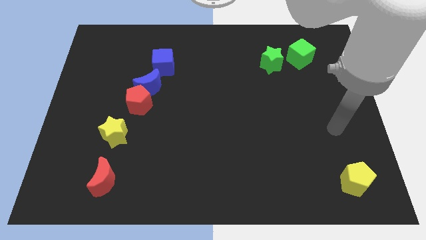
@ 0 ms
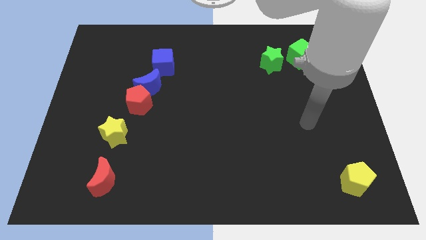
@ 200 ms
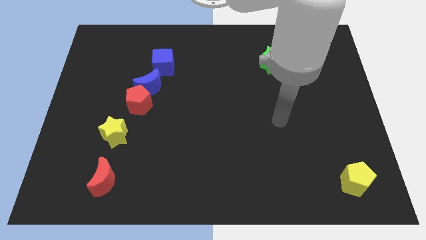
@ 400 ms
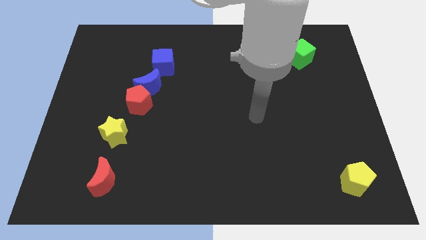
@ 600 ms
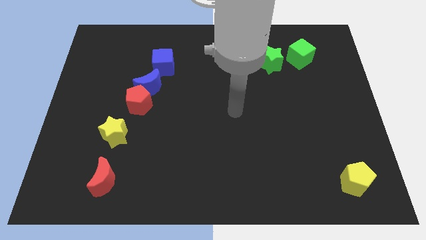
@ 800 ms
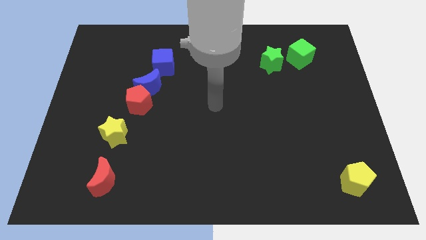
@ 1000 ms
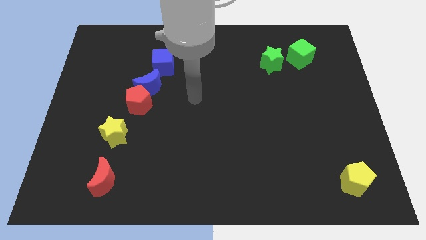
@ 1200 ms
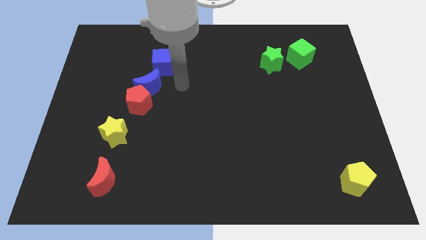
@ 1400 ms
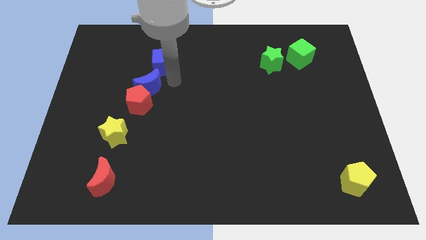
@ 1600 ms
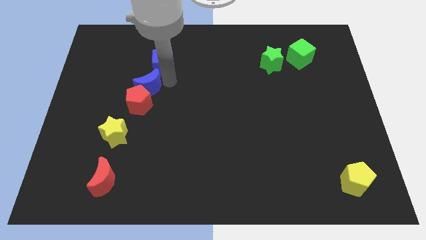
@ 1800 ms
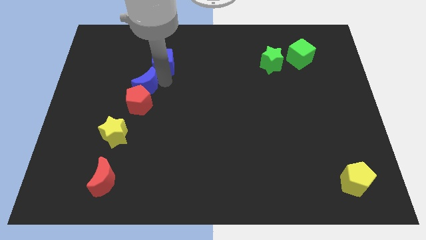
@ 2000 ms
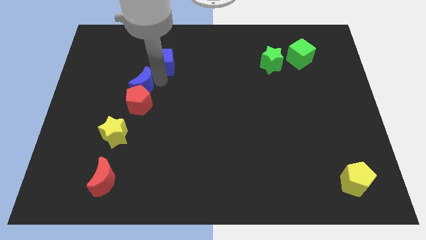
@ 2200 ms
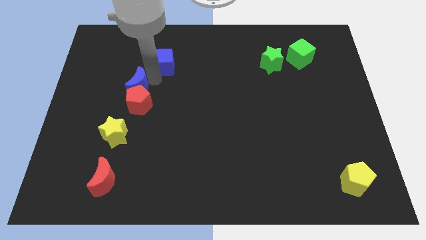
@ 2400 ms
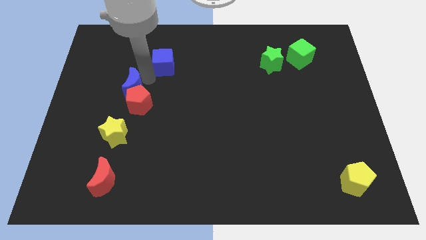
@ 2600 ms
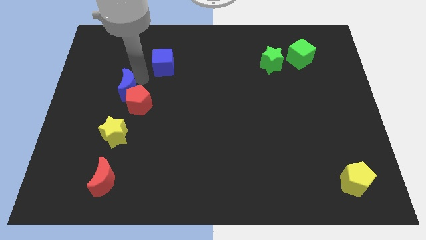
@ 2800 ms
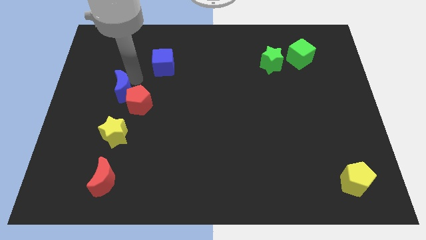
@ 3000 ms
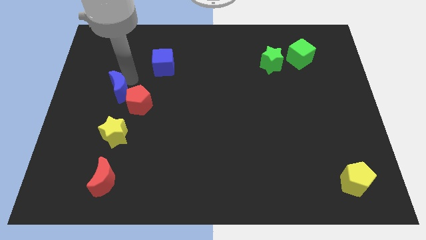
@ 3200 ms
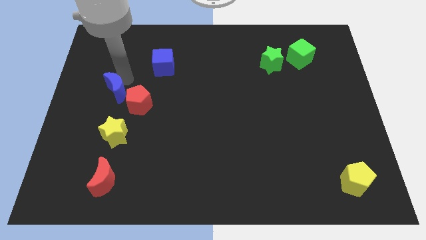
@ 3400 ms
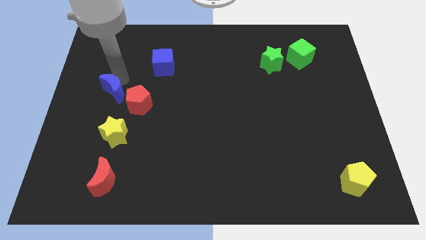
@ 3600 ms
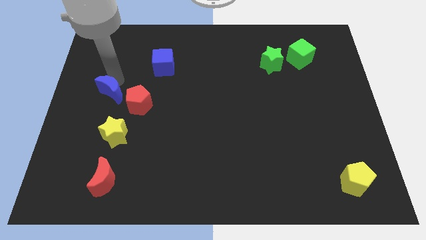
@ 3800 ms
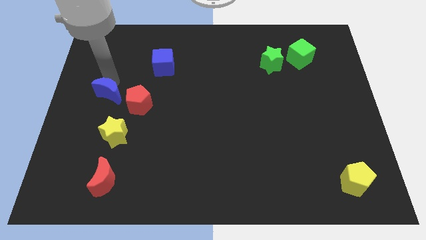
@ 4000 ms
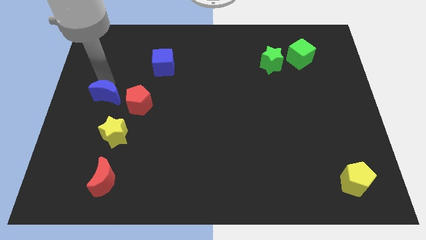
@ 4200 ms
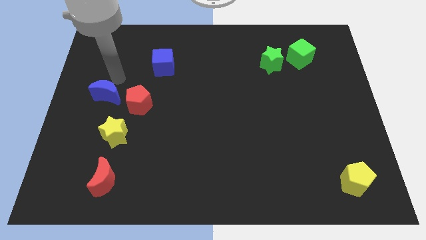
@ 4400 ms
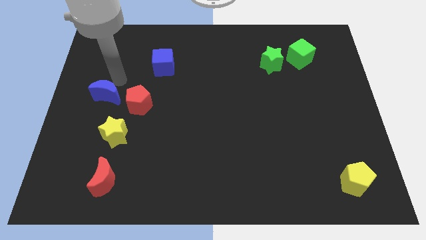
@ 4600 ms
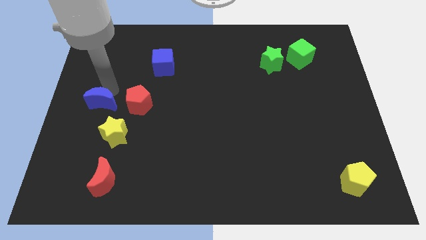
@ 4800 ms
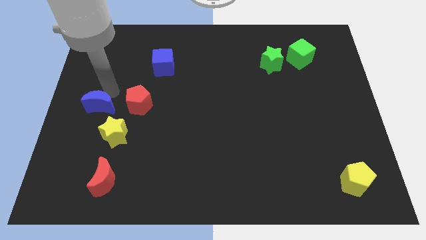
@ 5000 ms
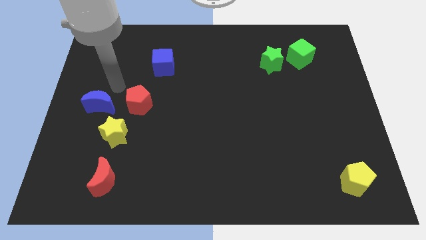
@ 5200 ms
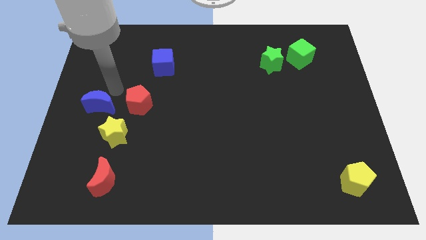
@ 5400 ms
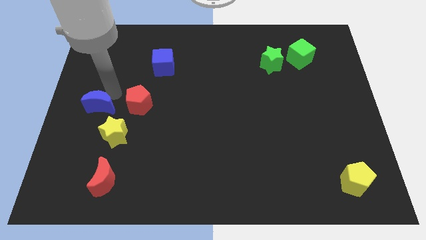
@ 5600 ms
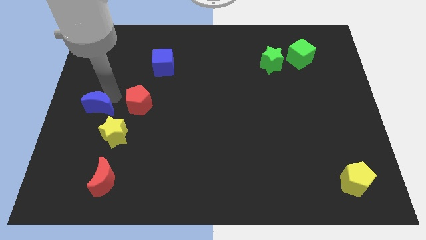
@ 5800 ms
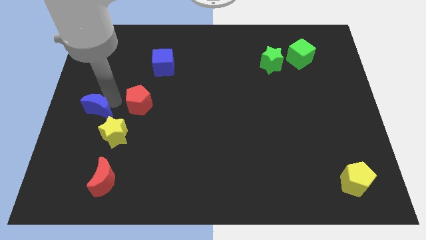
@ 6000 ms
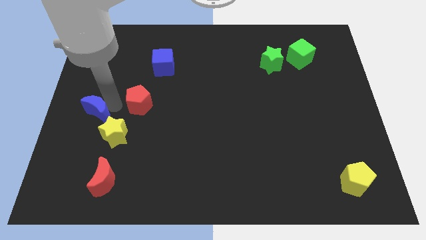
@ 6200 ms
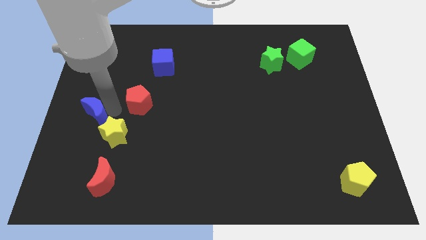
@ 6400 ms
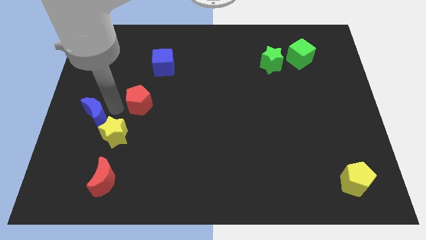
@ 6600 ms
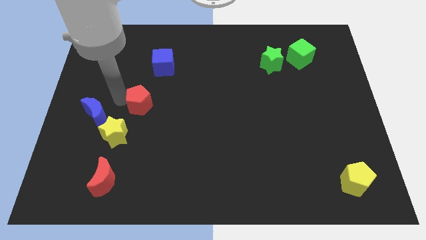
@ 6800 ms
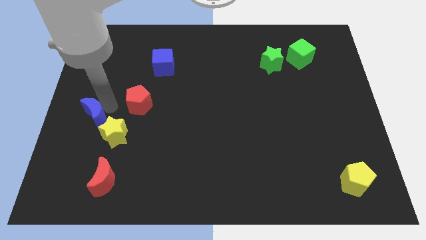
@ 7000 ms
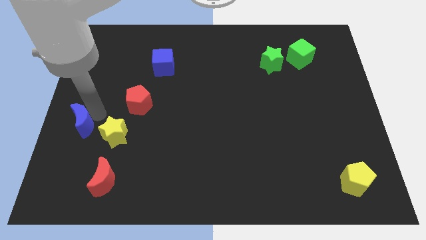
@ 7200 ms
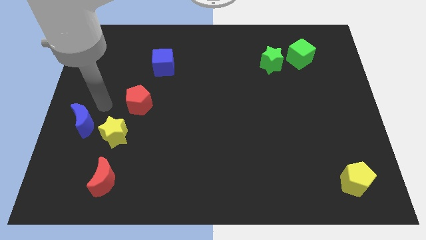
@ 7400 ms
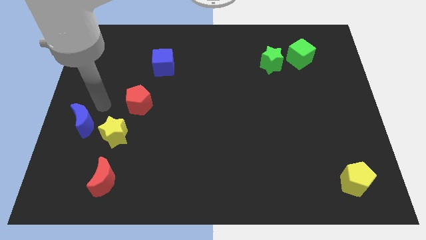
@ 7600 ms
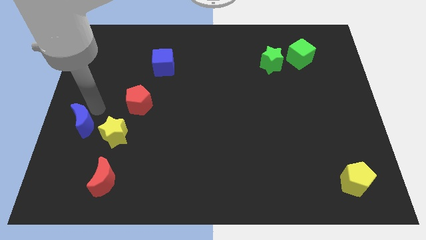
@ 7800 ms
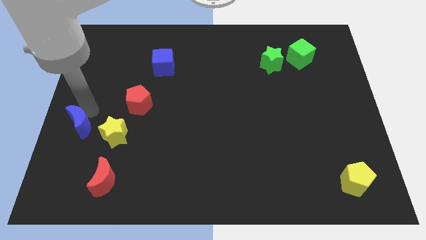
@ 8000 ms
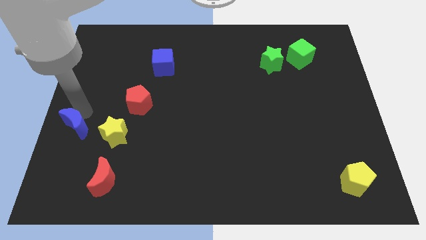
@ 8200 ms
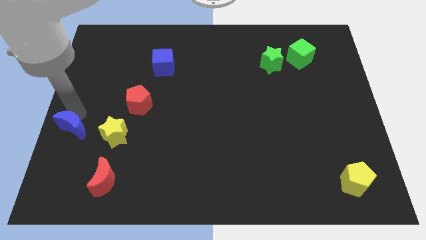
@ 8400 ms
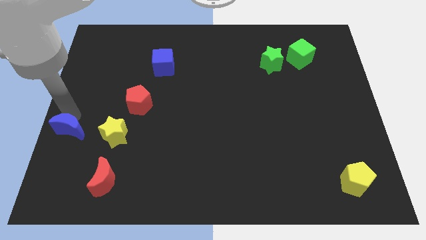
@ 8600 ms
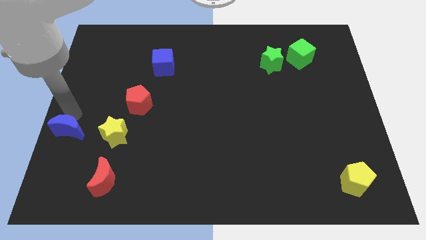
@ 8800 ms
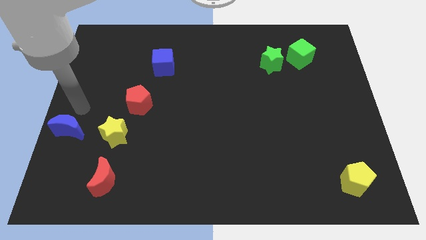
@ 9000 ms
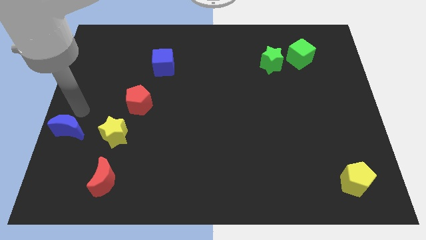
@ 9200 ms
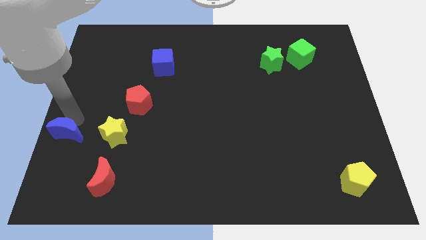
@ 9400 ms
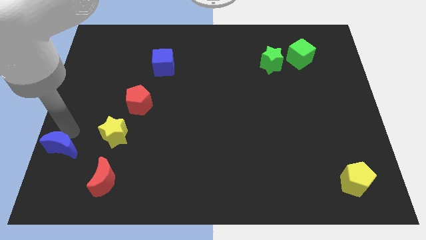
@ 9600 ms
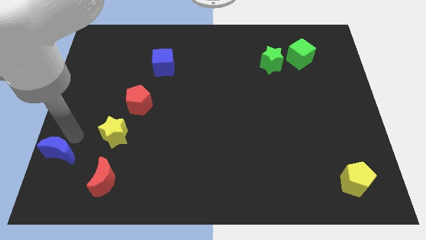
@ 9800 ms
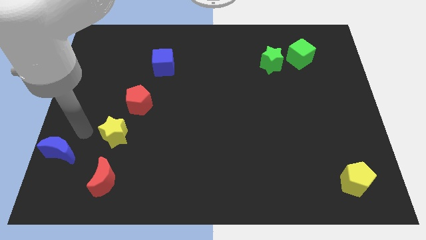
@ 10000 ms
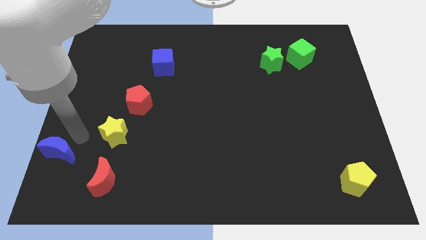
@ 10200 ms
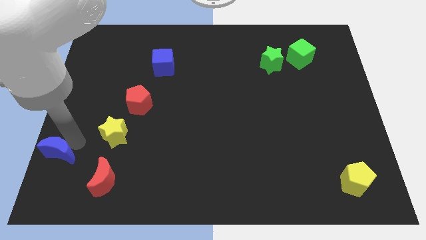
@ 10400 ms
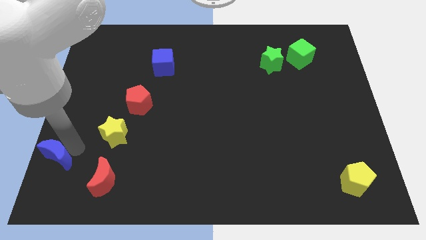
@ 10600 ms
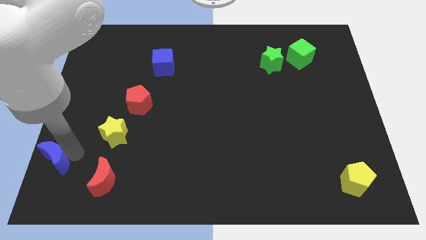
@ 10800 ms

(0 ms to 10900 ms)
push the blue moon to the bottom left of the board

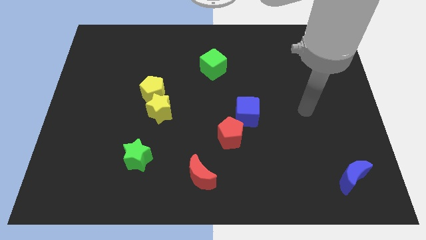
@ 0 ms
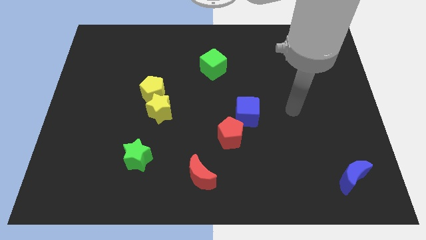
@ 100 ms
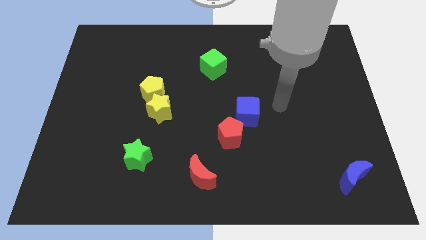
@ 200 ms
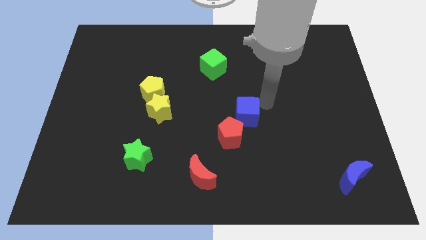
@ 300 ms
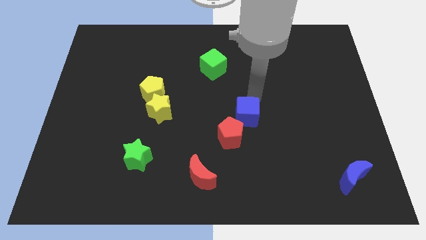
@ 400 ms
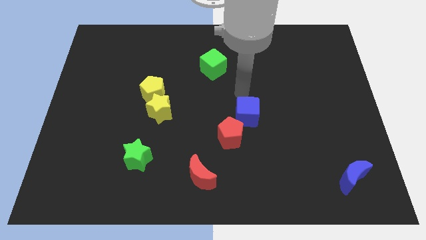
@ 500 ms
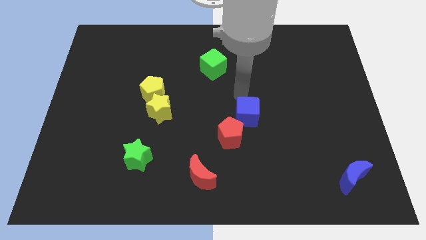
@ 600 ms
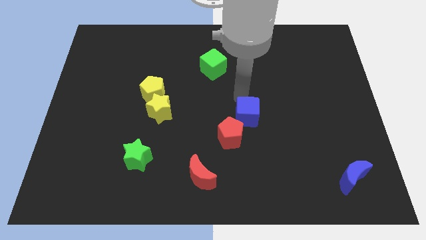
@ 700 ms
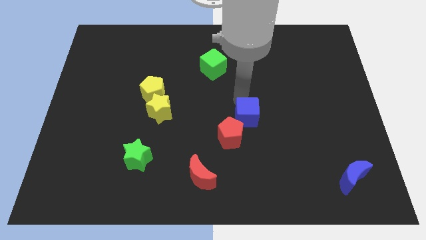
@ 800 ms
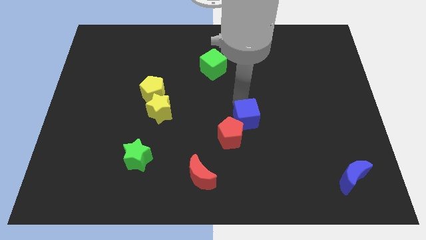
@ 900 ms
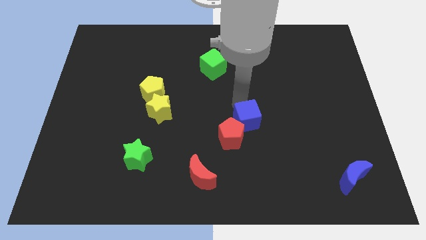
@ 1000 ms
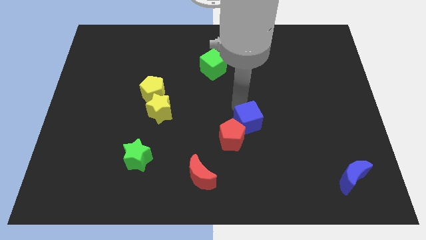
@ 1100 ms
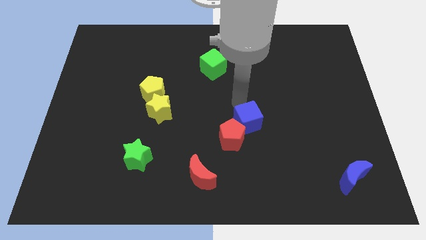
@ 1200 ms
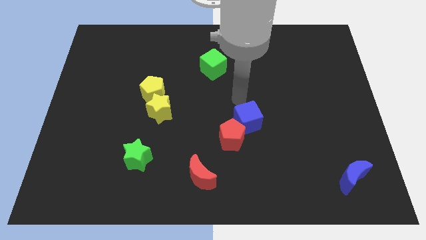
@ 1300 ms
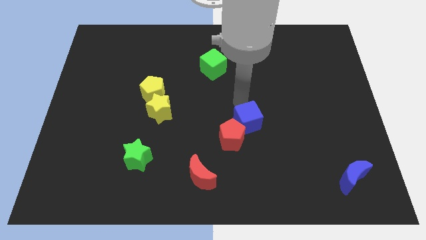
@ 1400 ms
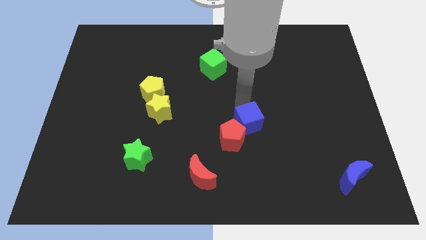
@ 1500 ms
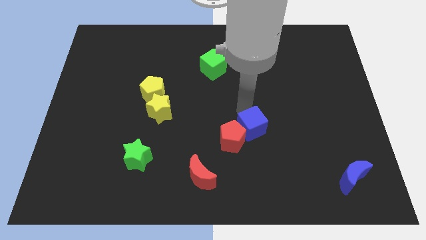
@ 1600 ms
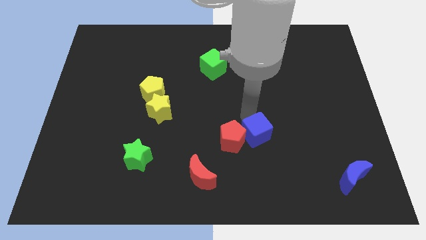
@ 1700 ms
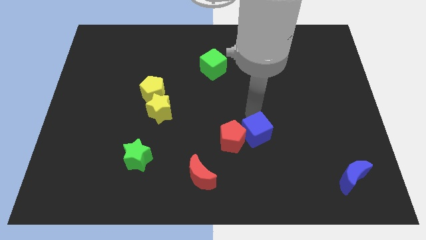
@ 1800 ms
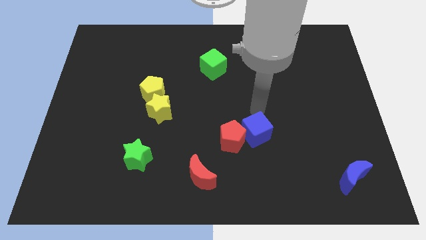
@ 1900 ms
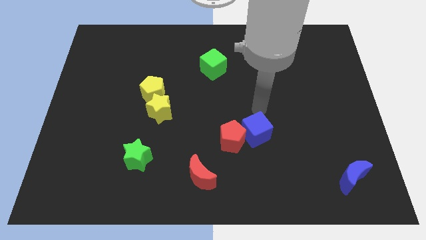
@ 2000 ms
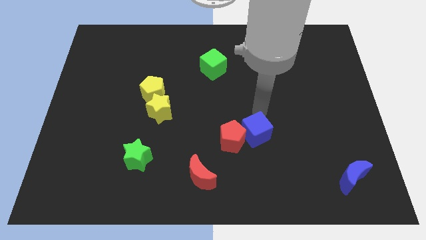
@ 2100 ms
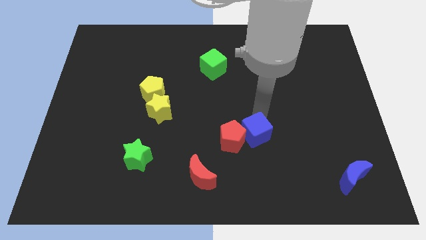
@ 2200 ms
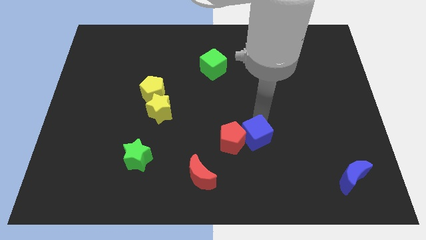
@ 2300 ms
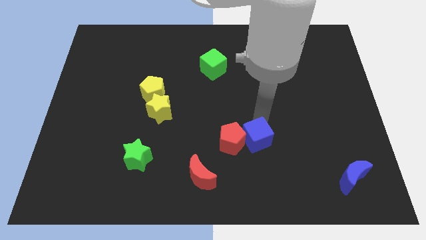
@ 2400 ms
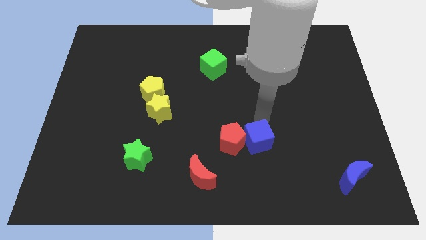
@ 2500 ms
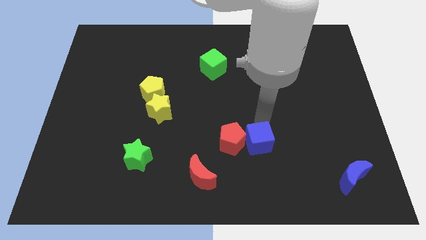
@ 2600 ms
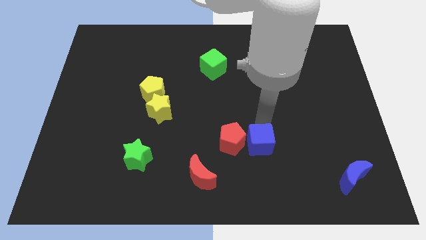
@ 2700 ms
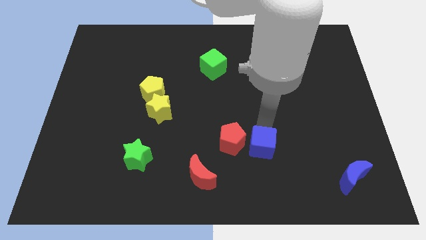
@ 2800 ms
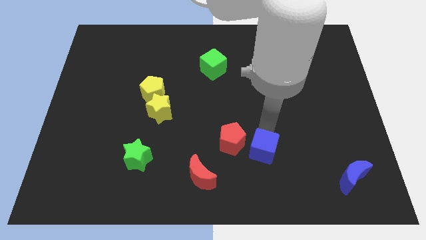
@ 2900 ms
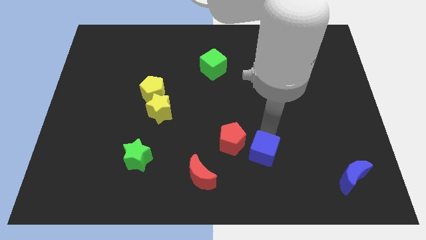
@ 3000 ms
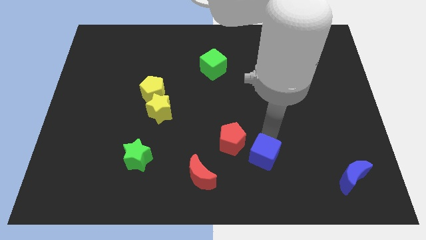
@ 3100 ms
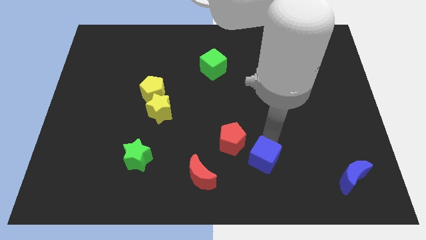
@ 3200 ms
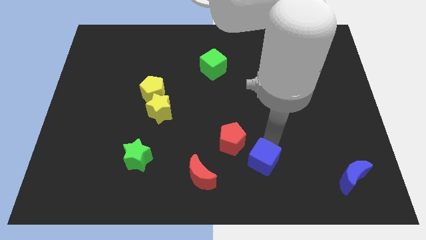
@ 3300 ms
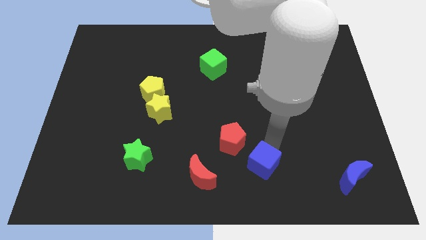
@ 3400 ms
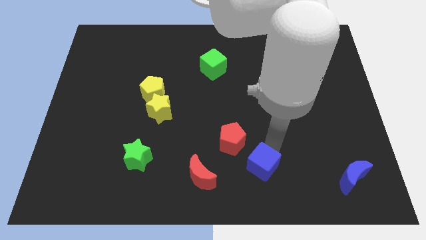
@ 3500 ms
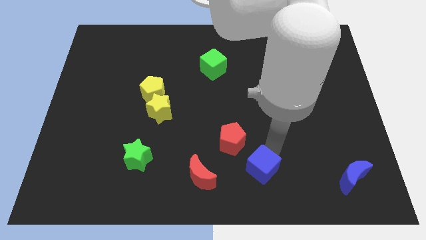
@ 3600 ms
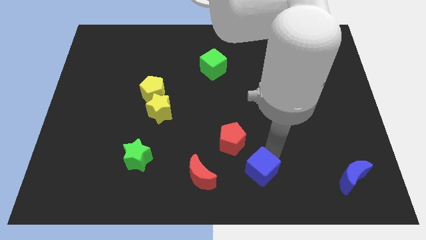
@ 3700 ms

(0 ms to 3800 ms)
slide the blue cube to the bottom side
